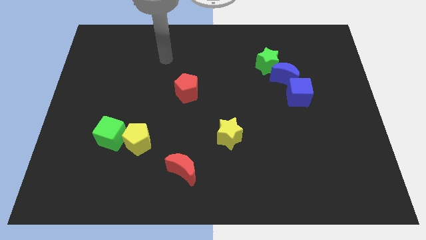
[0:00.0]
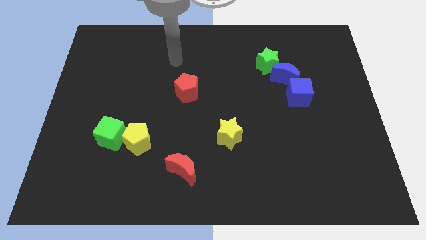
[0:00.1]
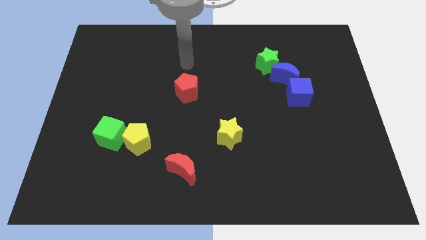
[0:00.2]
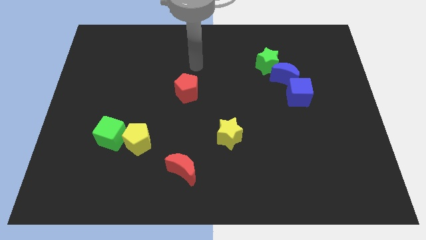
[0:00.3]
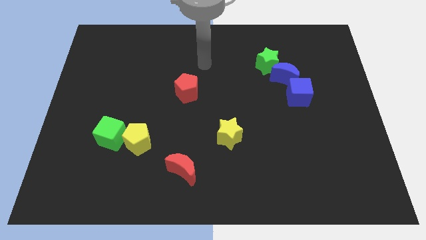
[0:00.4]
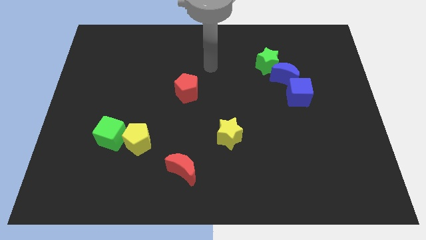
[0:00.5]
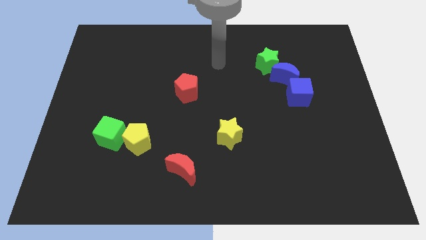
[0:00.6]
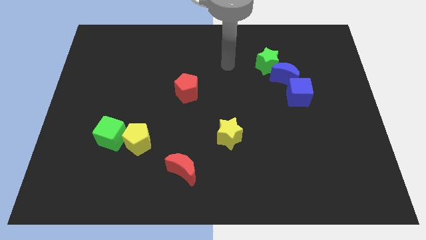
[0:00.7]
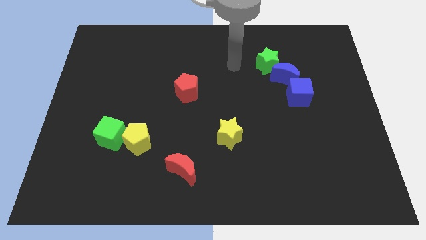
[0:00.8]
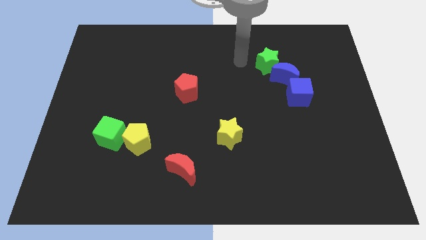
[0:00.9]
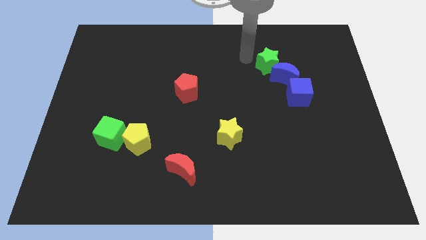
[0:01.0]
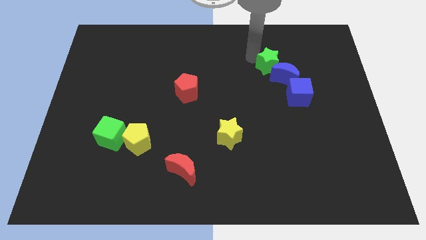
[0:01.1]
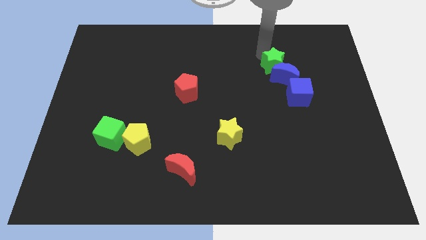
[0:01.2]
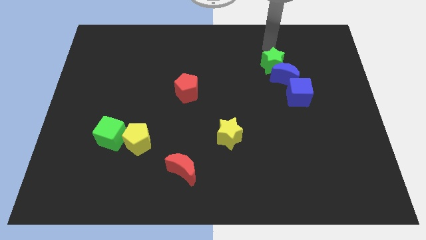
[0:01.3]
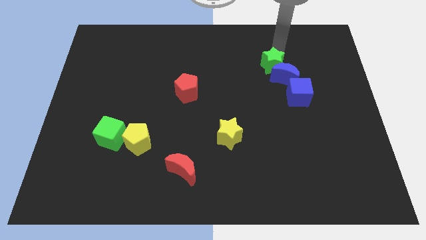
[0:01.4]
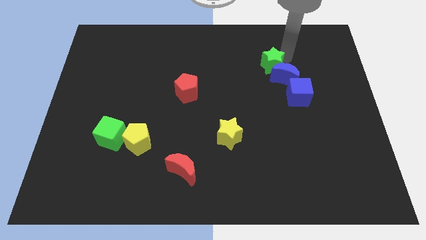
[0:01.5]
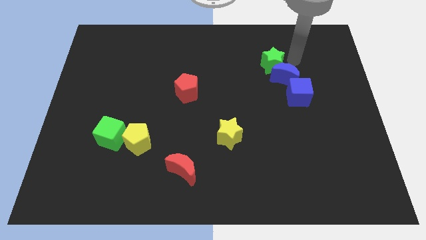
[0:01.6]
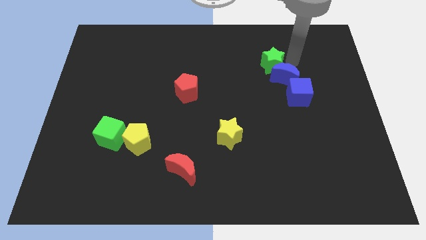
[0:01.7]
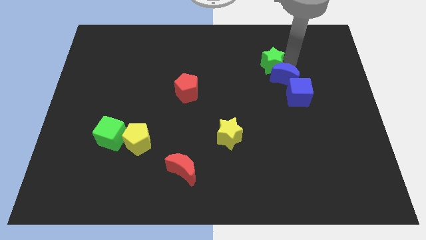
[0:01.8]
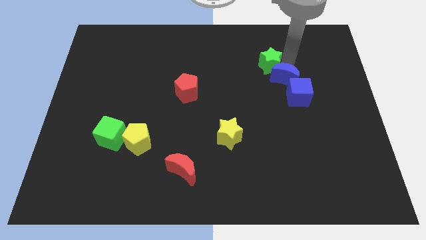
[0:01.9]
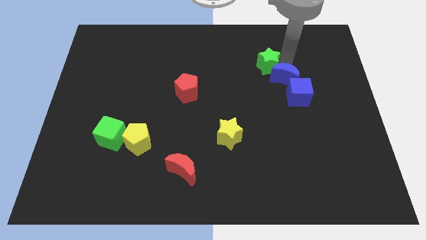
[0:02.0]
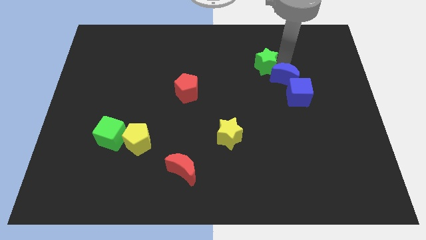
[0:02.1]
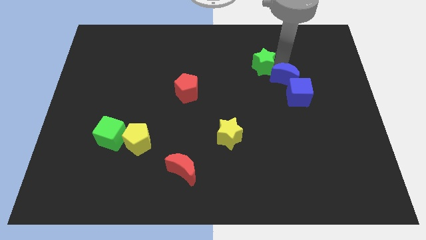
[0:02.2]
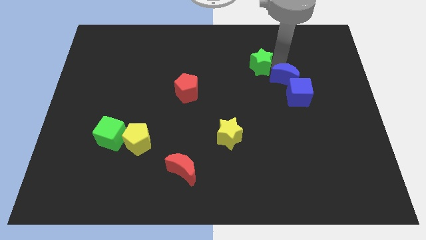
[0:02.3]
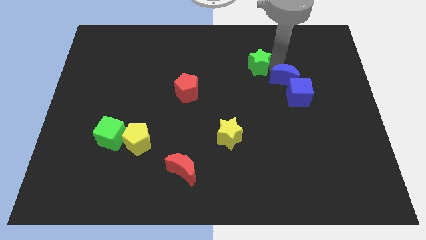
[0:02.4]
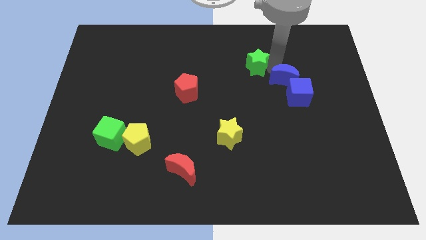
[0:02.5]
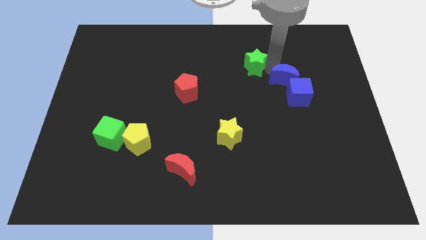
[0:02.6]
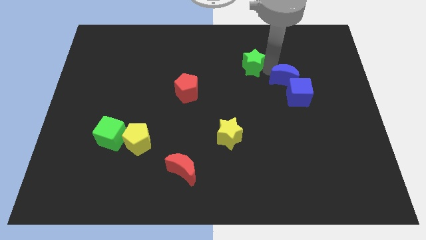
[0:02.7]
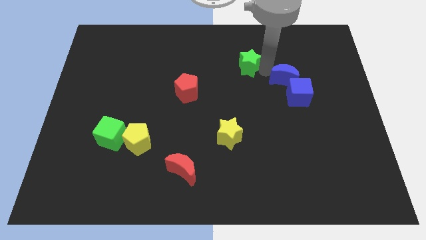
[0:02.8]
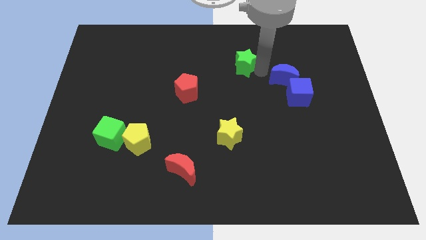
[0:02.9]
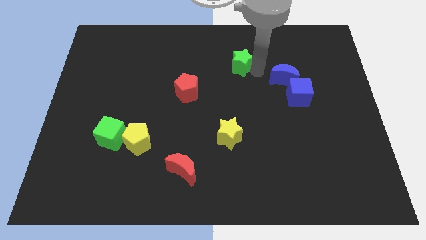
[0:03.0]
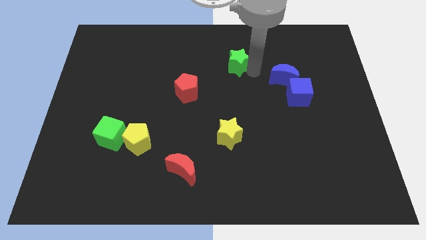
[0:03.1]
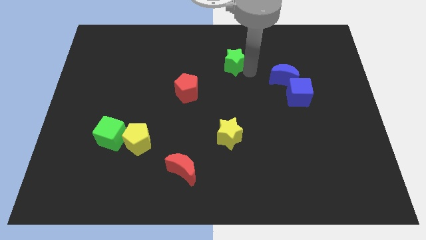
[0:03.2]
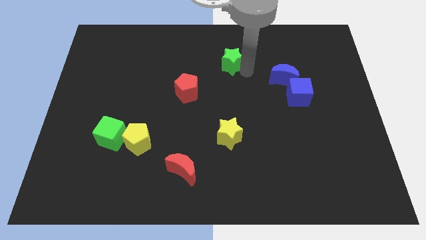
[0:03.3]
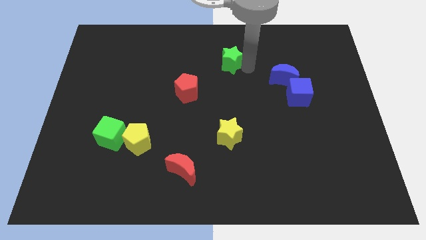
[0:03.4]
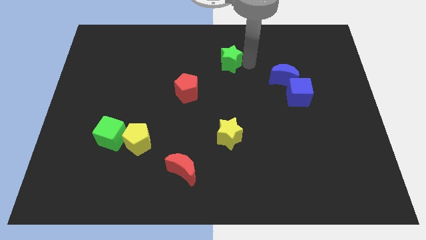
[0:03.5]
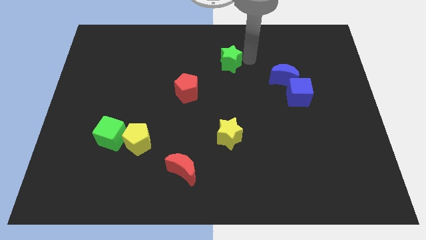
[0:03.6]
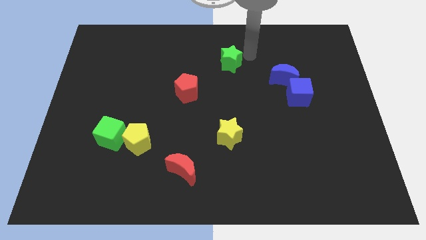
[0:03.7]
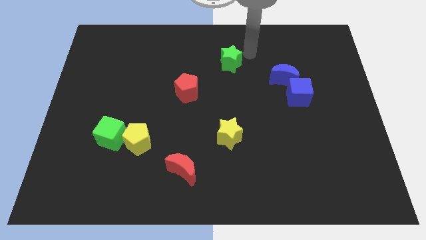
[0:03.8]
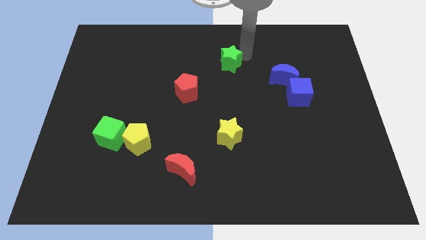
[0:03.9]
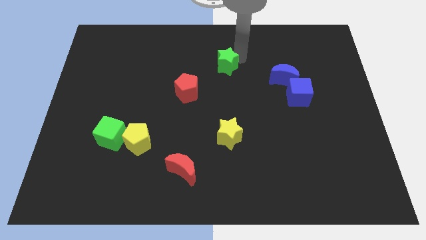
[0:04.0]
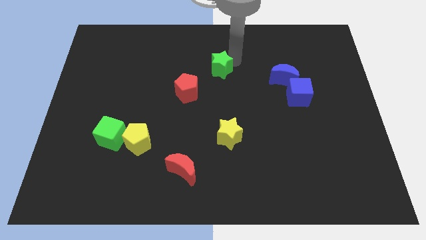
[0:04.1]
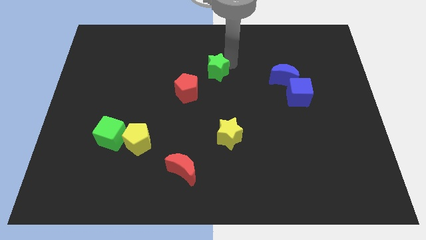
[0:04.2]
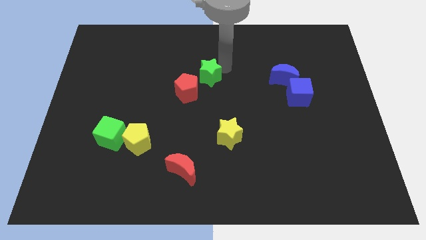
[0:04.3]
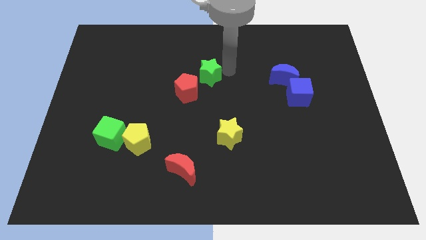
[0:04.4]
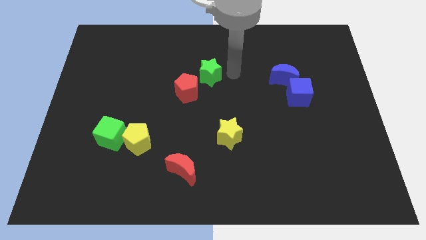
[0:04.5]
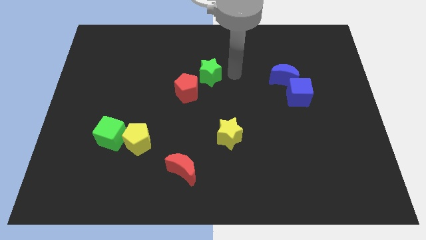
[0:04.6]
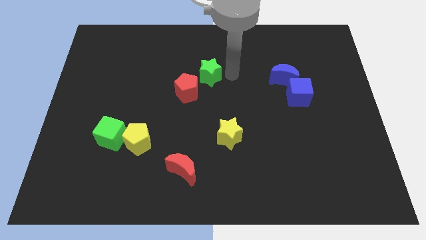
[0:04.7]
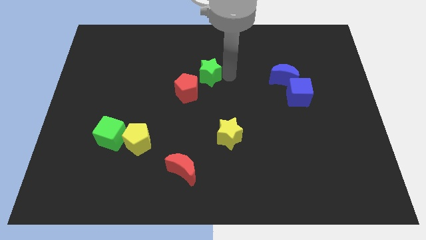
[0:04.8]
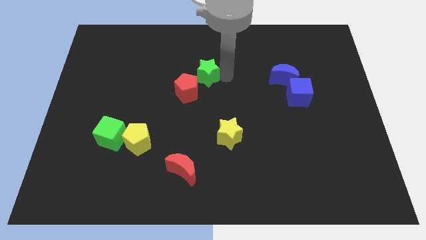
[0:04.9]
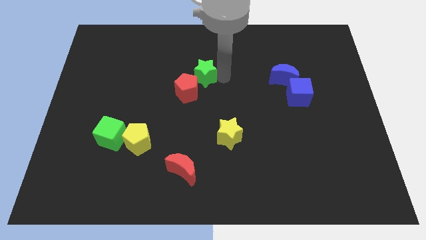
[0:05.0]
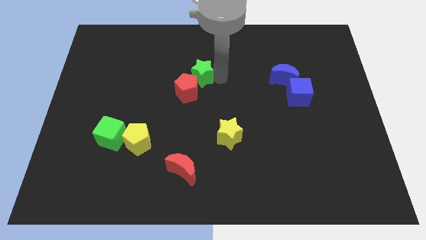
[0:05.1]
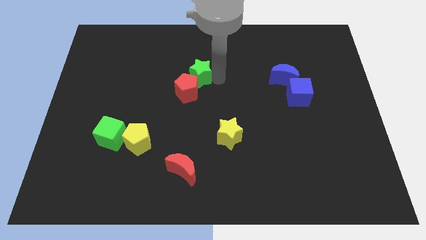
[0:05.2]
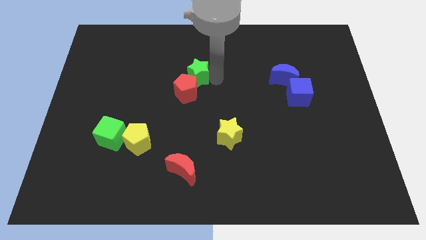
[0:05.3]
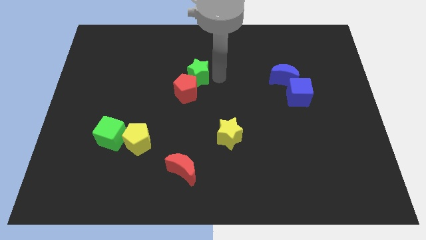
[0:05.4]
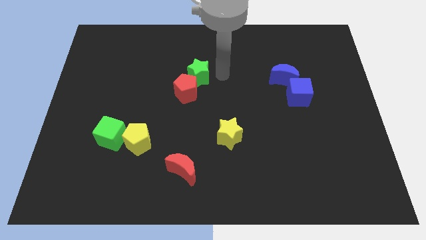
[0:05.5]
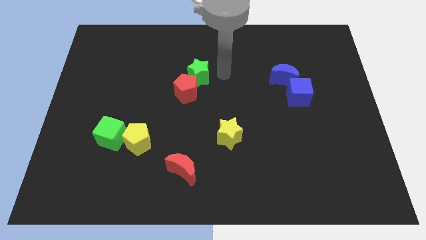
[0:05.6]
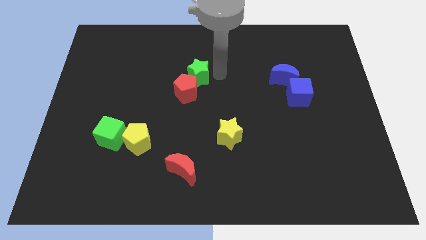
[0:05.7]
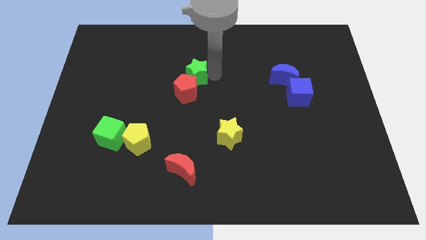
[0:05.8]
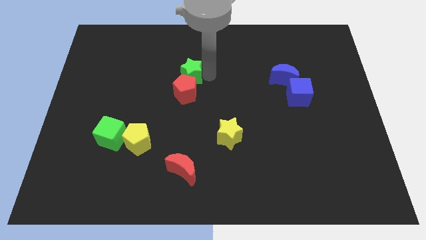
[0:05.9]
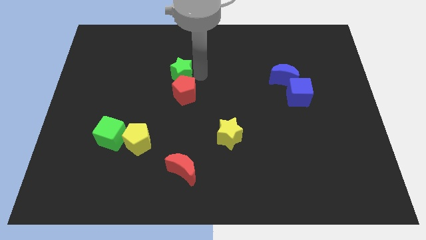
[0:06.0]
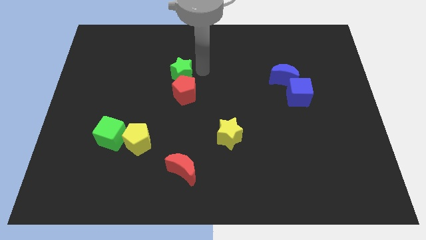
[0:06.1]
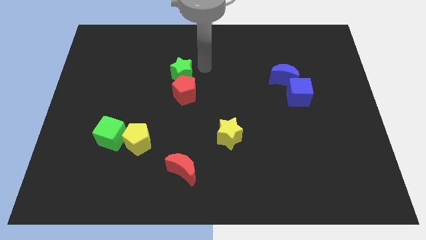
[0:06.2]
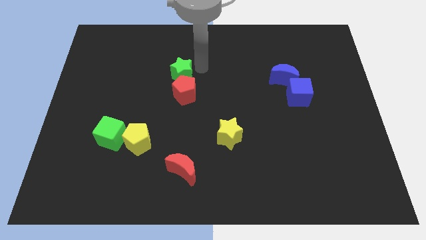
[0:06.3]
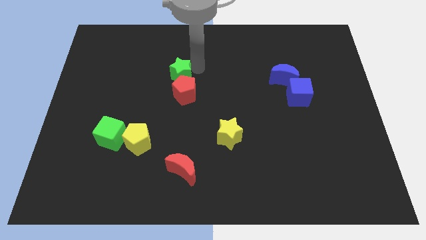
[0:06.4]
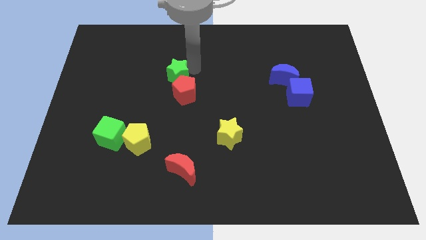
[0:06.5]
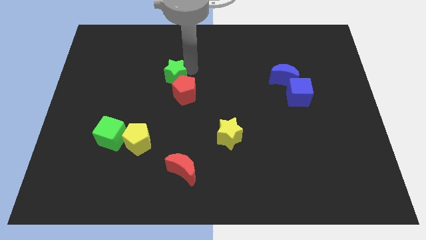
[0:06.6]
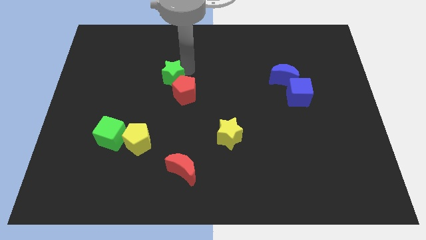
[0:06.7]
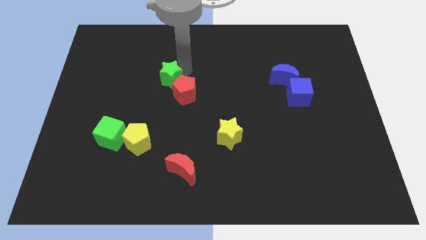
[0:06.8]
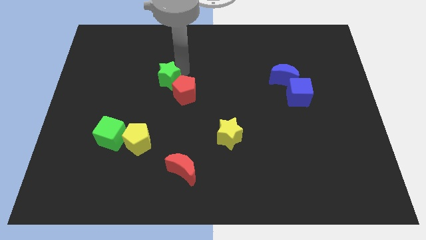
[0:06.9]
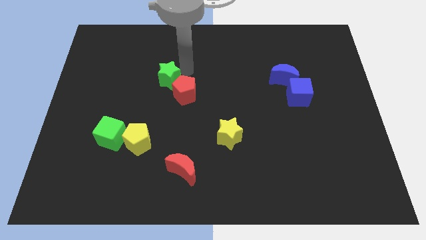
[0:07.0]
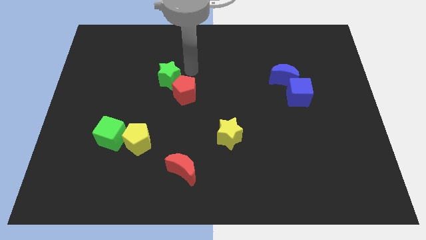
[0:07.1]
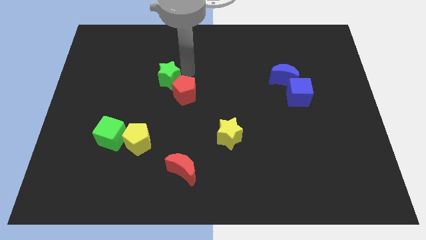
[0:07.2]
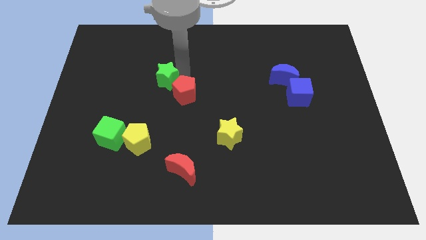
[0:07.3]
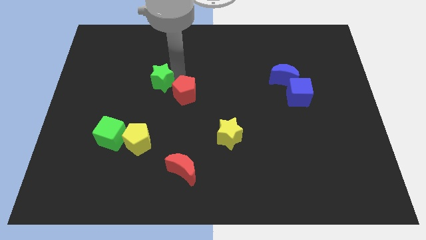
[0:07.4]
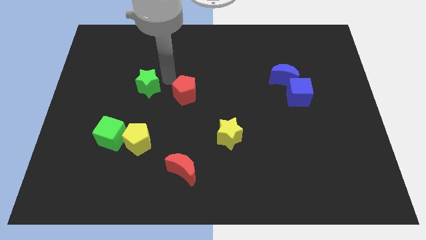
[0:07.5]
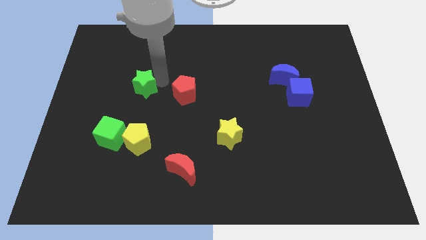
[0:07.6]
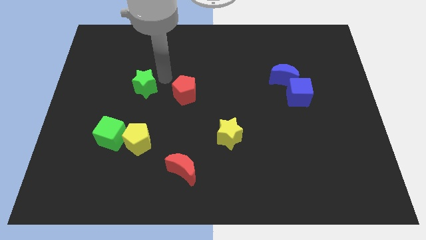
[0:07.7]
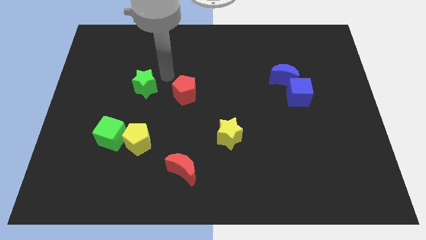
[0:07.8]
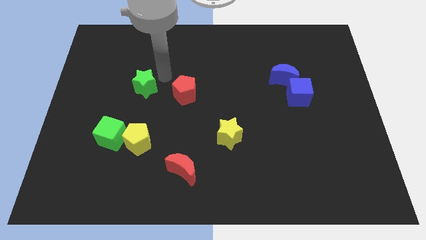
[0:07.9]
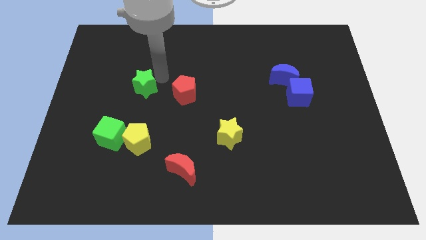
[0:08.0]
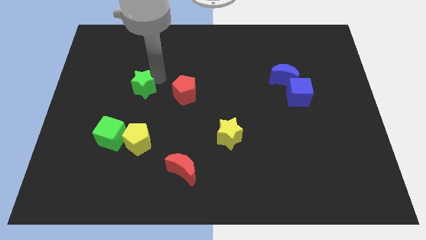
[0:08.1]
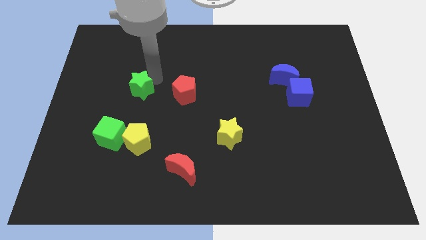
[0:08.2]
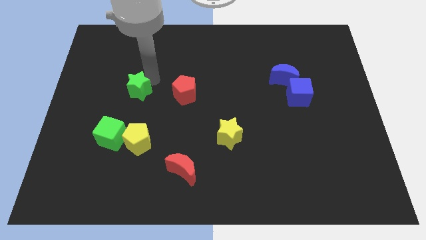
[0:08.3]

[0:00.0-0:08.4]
slide the green star to the top of the green cube
